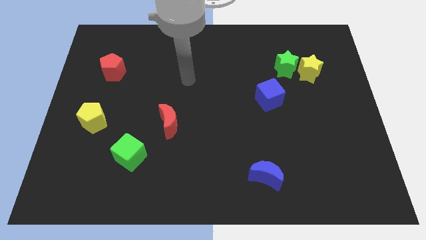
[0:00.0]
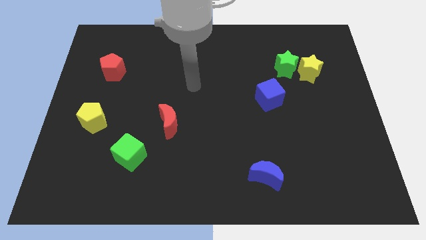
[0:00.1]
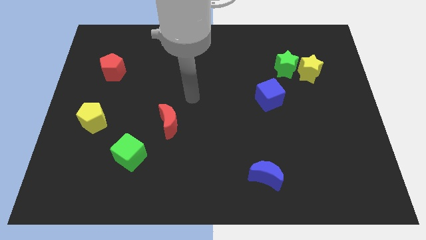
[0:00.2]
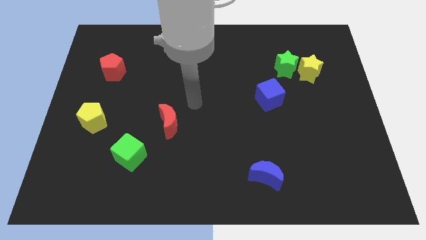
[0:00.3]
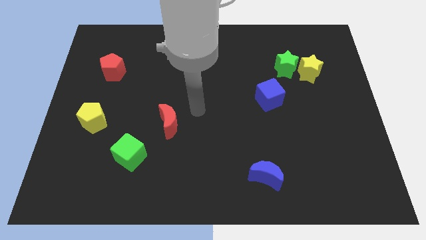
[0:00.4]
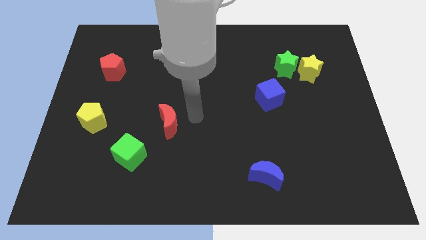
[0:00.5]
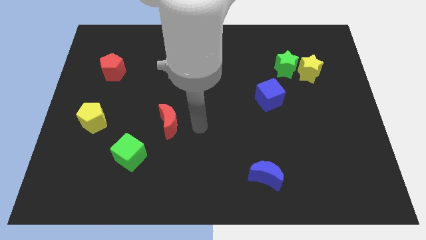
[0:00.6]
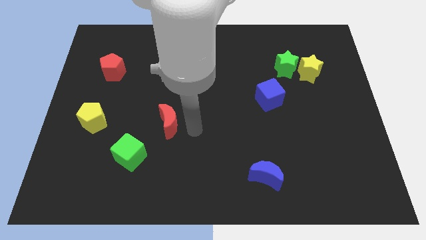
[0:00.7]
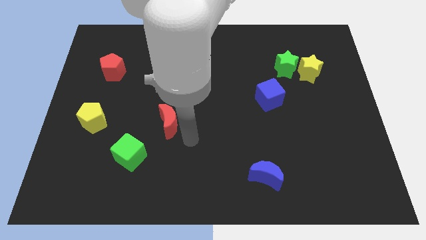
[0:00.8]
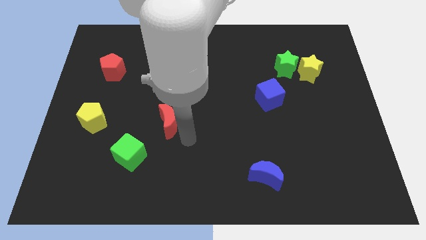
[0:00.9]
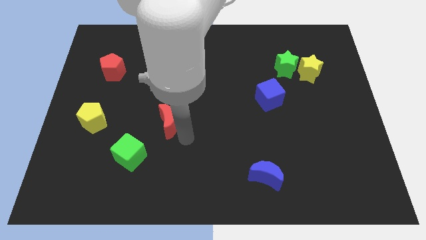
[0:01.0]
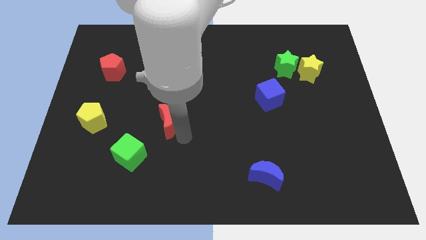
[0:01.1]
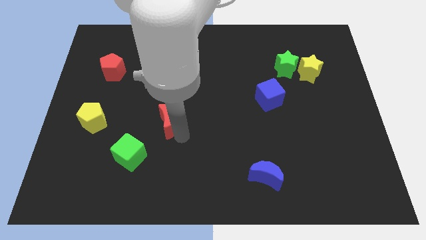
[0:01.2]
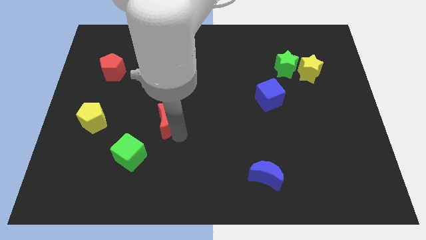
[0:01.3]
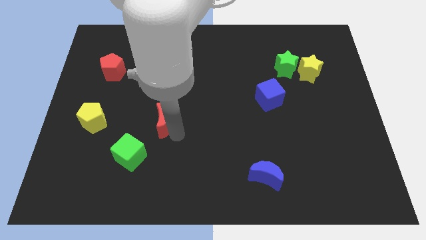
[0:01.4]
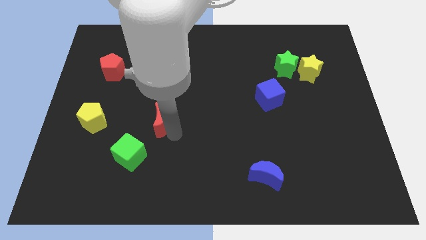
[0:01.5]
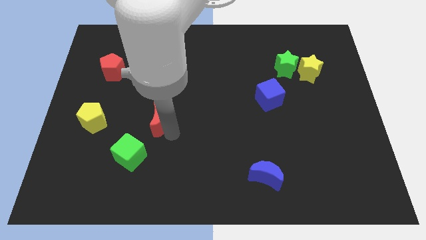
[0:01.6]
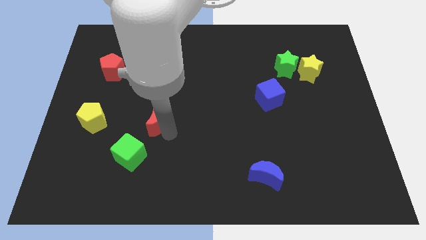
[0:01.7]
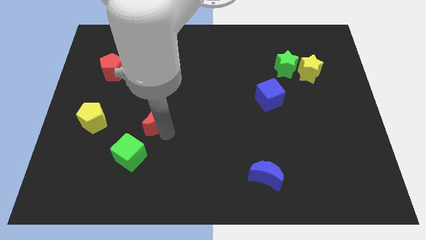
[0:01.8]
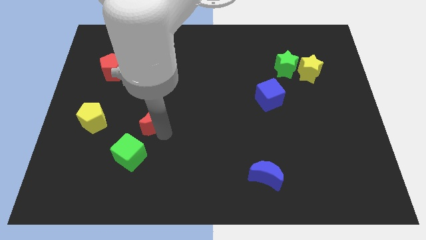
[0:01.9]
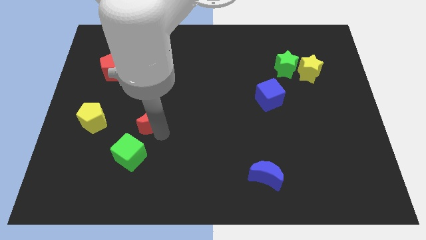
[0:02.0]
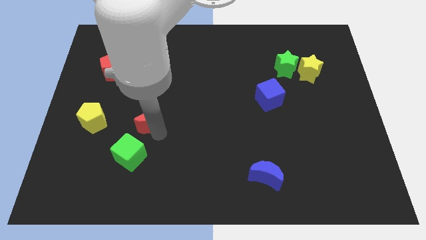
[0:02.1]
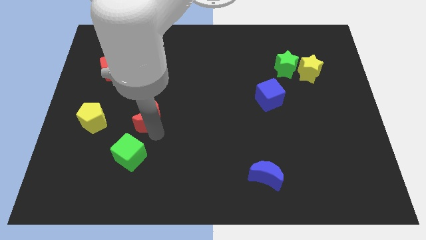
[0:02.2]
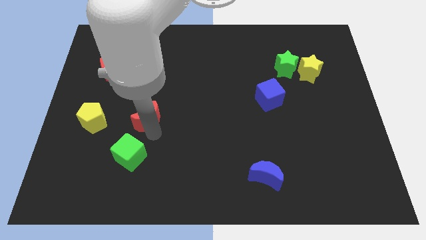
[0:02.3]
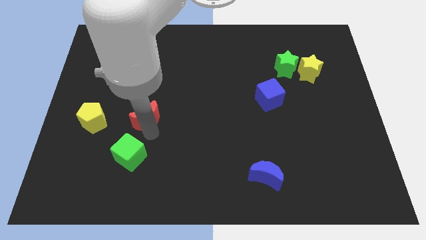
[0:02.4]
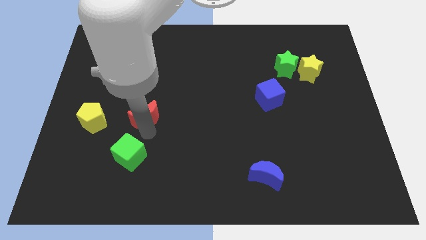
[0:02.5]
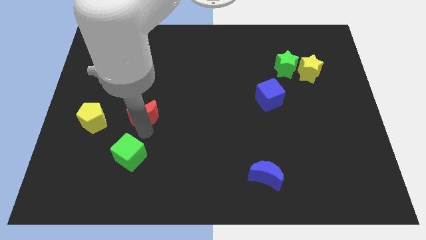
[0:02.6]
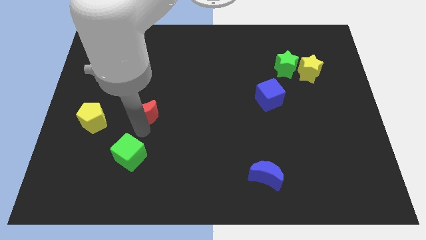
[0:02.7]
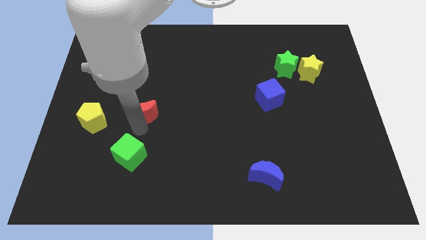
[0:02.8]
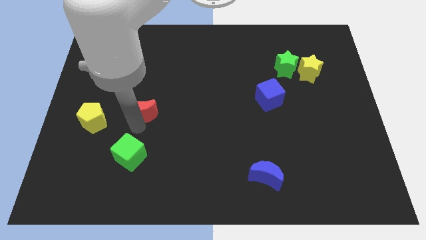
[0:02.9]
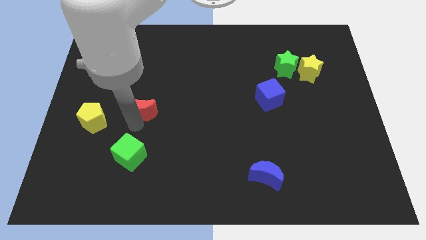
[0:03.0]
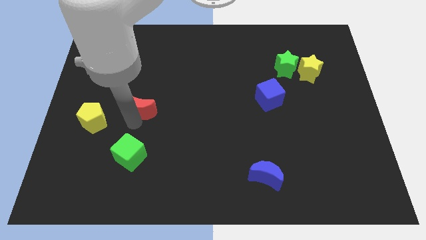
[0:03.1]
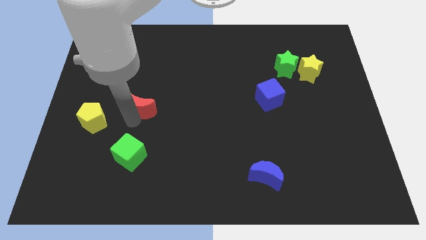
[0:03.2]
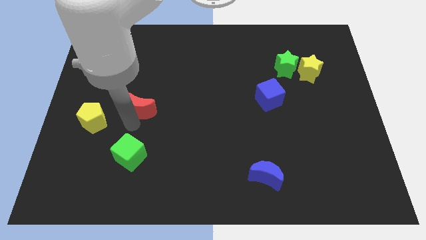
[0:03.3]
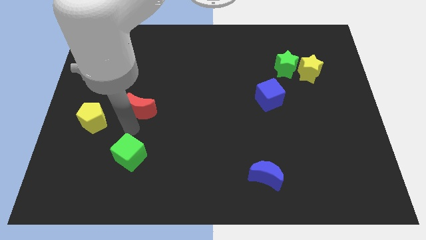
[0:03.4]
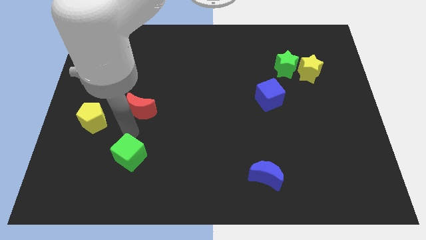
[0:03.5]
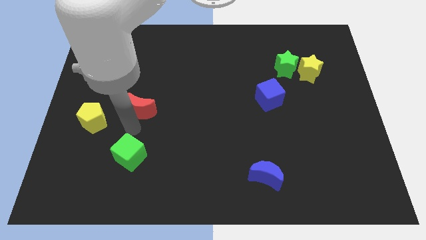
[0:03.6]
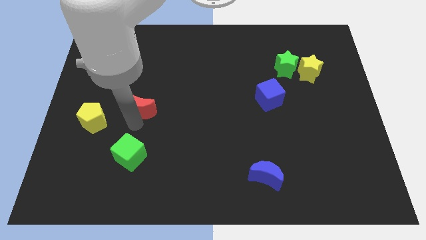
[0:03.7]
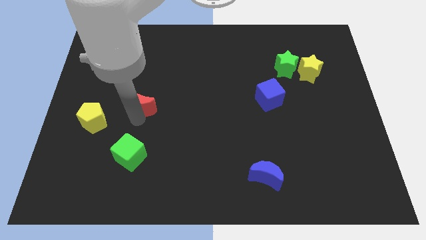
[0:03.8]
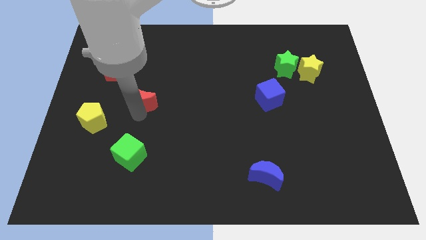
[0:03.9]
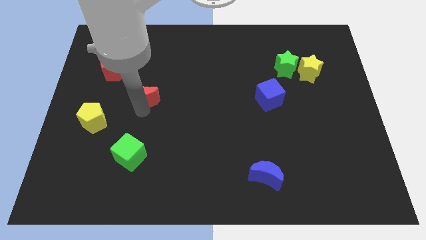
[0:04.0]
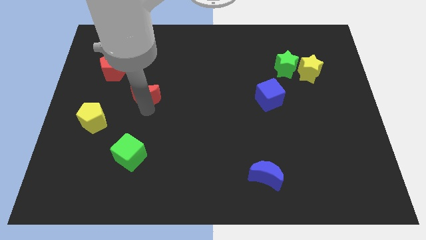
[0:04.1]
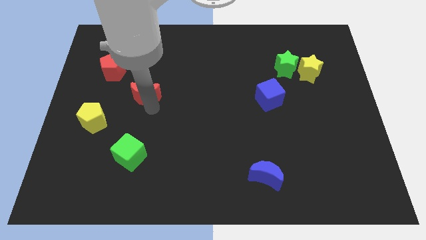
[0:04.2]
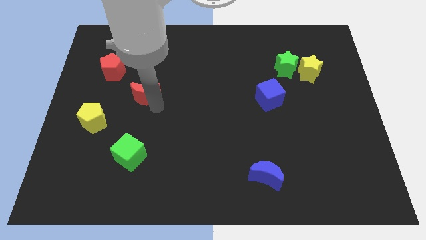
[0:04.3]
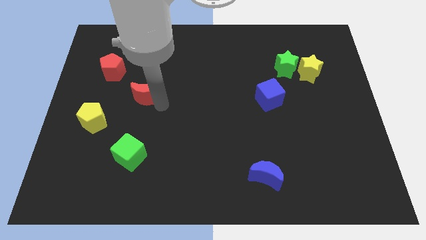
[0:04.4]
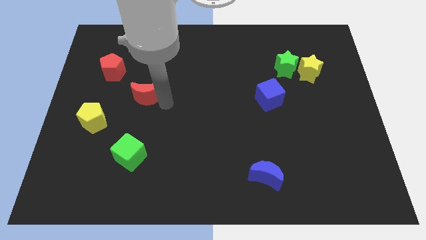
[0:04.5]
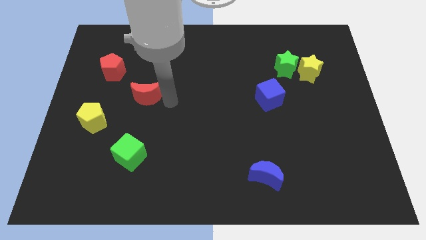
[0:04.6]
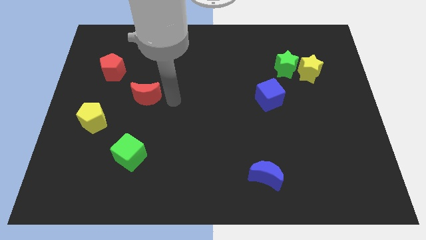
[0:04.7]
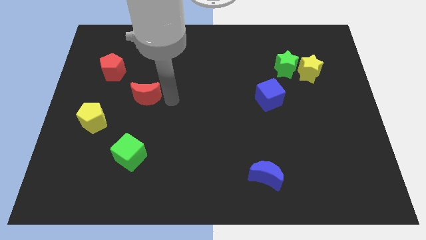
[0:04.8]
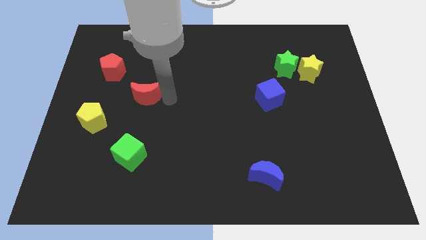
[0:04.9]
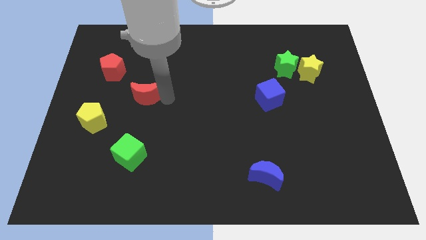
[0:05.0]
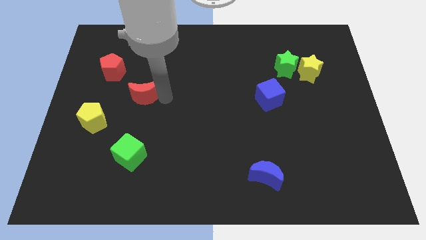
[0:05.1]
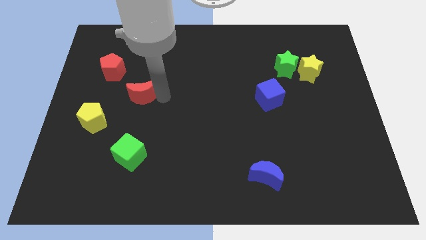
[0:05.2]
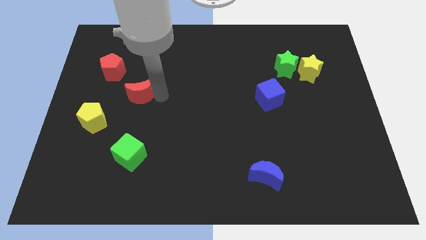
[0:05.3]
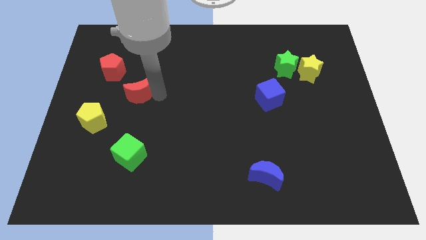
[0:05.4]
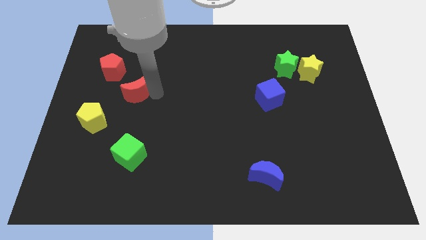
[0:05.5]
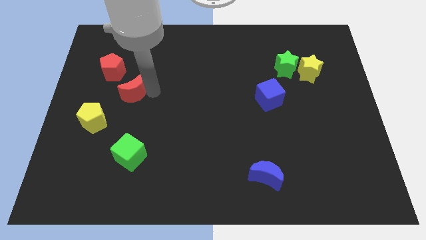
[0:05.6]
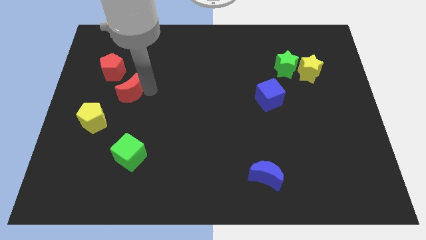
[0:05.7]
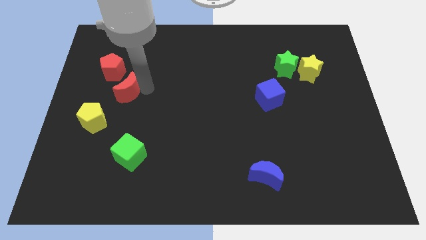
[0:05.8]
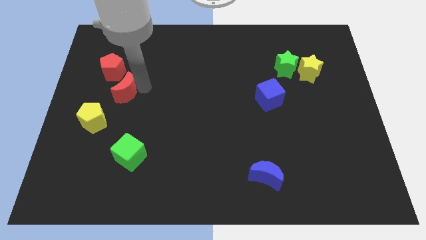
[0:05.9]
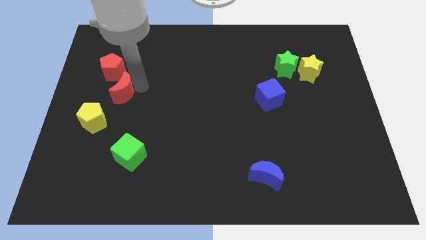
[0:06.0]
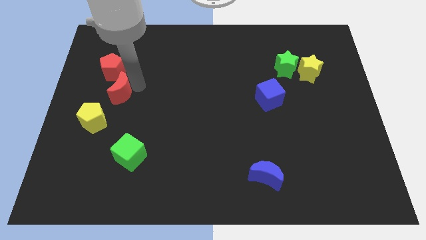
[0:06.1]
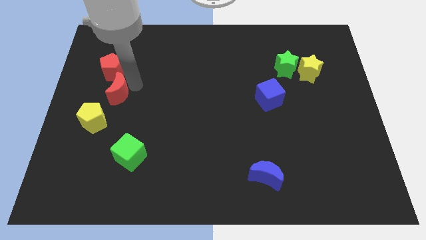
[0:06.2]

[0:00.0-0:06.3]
push the red moon to the top side of the yellow pentagon

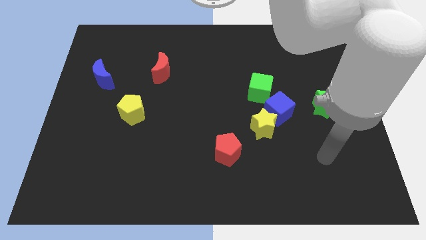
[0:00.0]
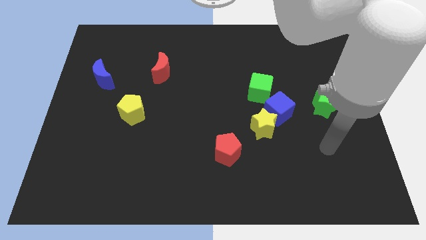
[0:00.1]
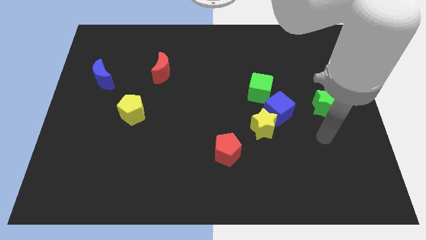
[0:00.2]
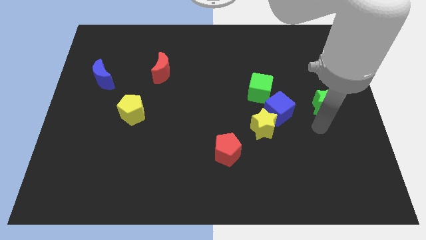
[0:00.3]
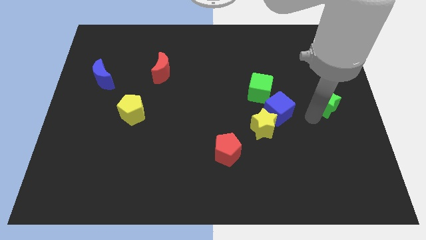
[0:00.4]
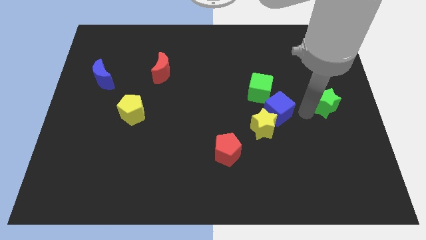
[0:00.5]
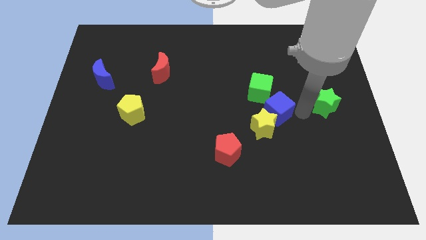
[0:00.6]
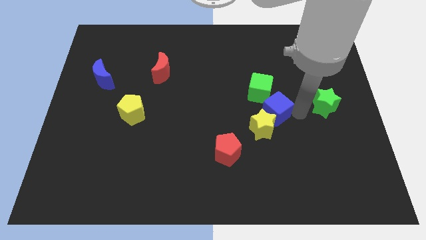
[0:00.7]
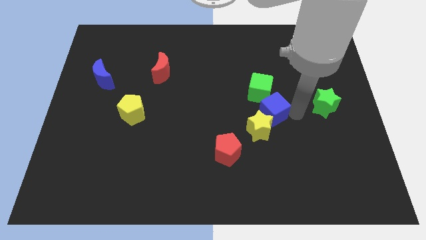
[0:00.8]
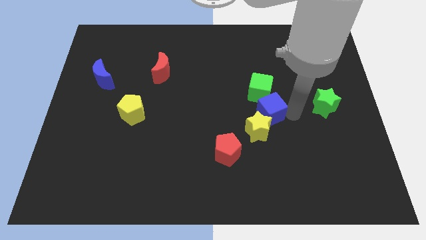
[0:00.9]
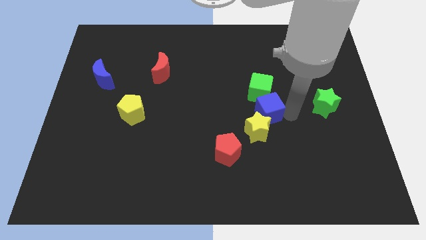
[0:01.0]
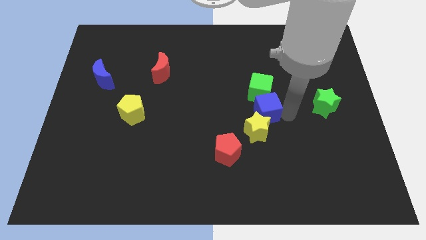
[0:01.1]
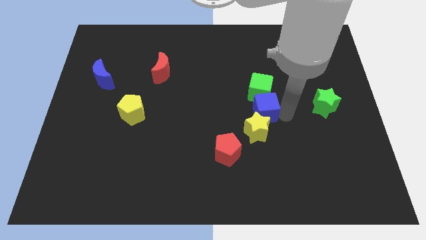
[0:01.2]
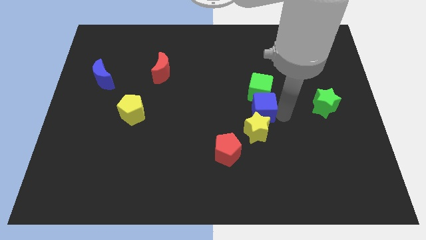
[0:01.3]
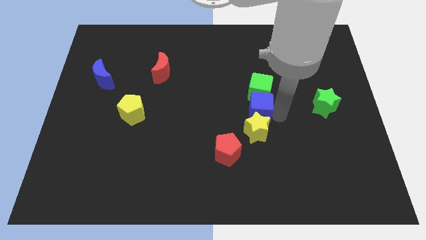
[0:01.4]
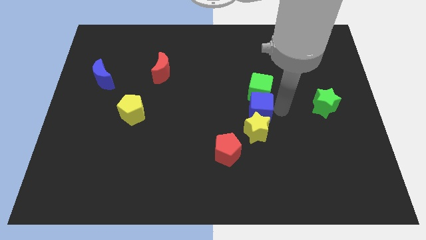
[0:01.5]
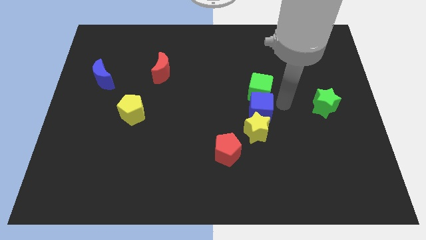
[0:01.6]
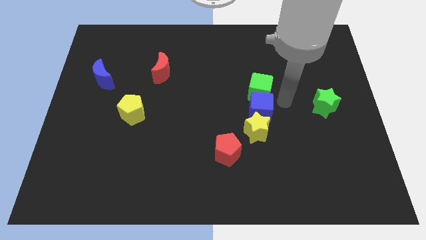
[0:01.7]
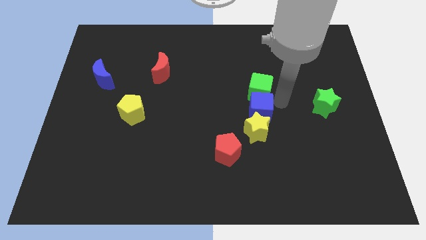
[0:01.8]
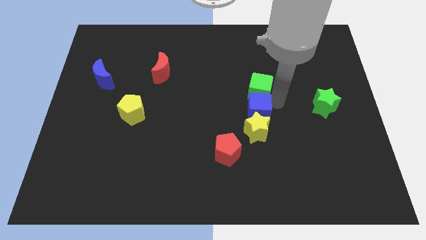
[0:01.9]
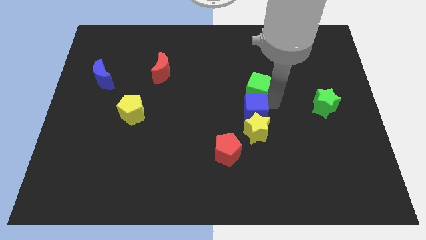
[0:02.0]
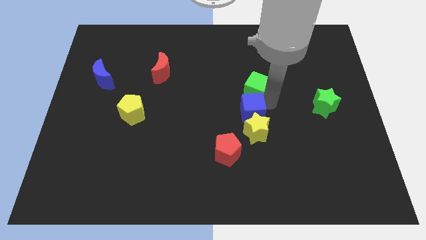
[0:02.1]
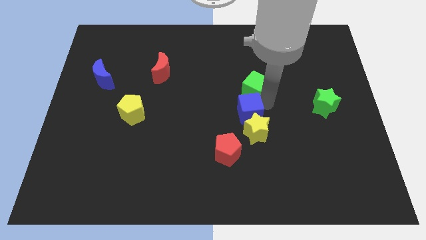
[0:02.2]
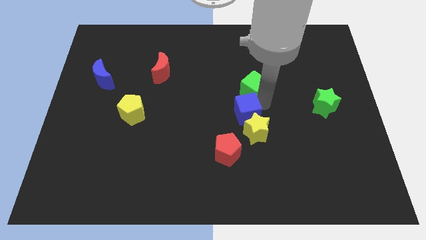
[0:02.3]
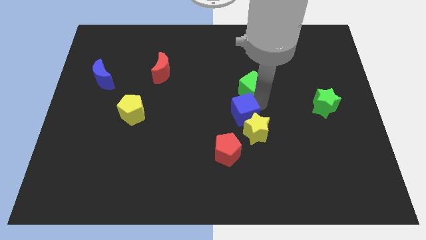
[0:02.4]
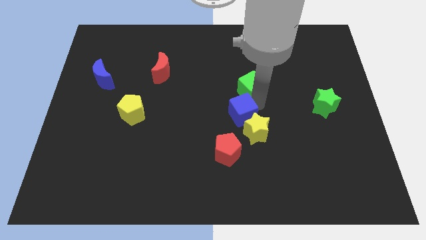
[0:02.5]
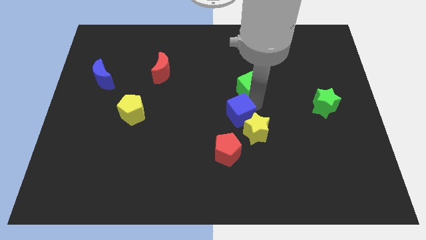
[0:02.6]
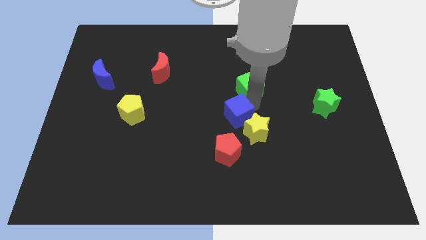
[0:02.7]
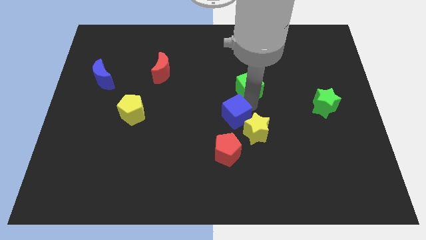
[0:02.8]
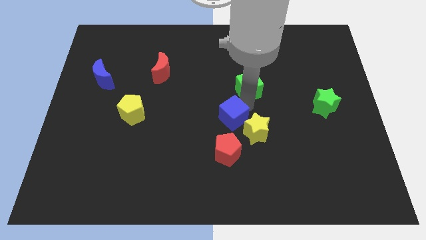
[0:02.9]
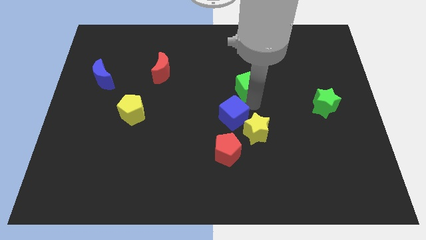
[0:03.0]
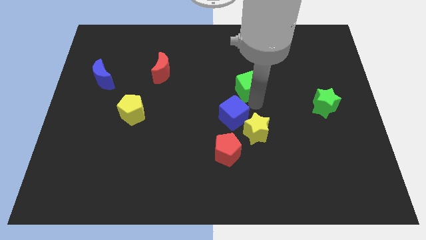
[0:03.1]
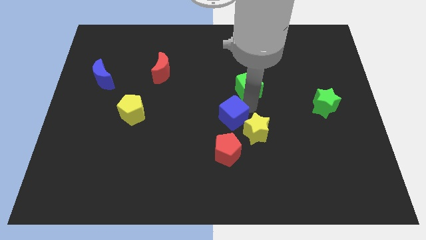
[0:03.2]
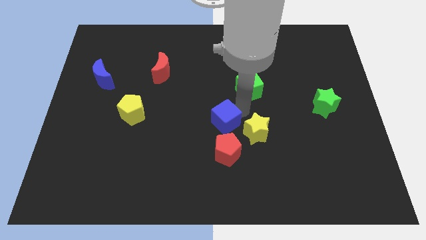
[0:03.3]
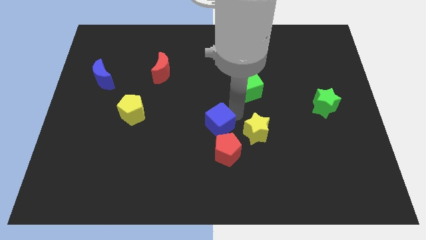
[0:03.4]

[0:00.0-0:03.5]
move the blue cube to the top left of the red pentagon
